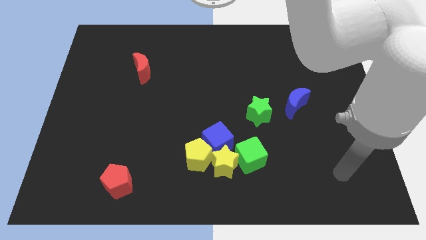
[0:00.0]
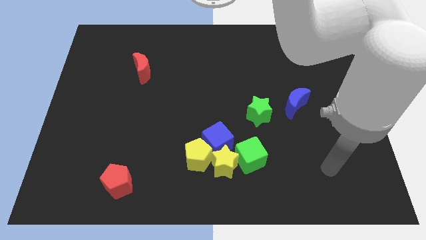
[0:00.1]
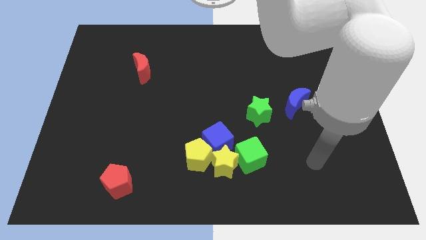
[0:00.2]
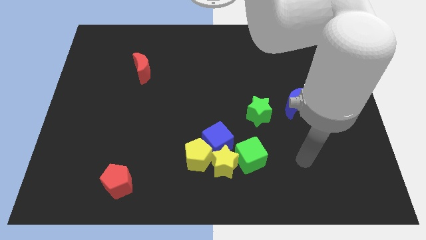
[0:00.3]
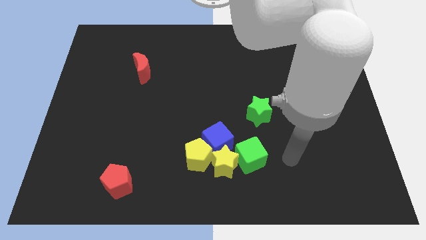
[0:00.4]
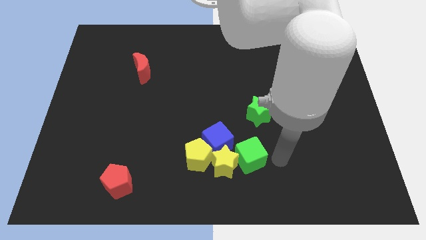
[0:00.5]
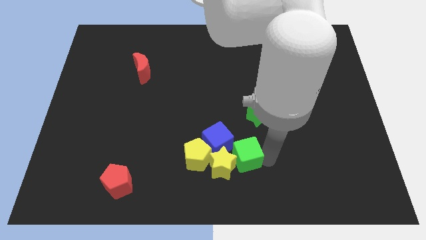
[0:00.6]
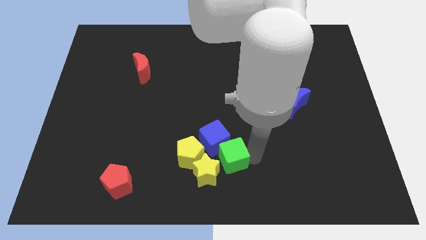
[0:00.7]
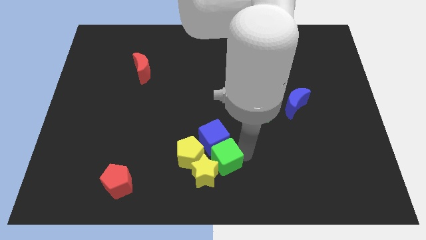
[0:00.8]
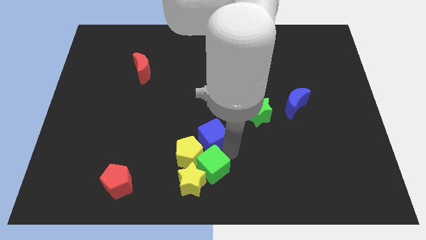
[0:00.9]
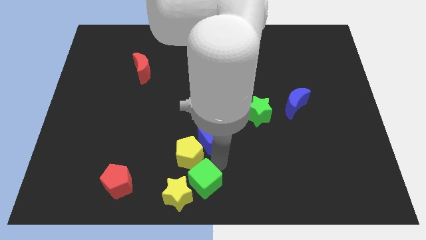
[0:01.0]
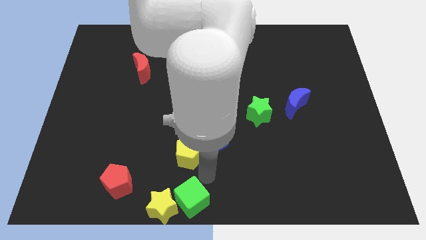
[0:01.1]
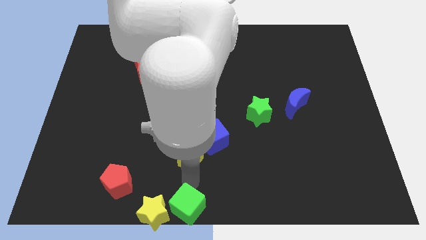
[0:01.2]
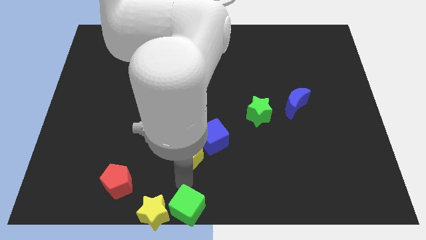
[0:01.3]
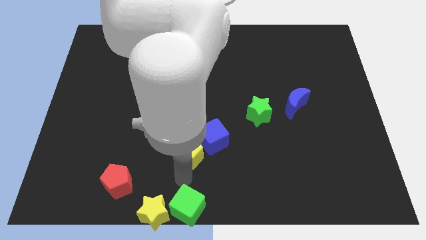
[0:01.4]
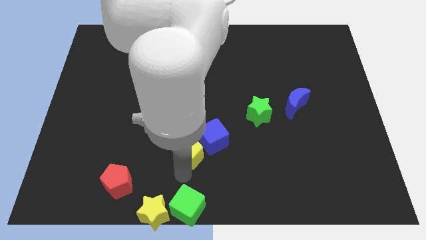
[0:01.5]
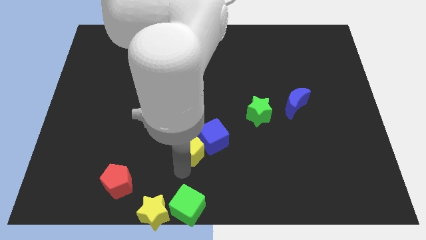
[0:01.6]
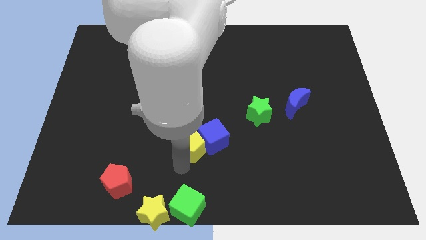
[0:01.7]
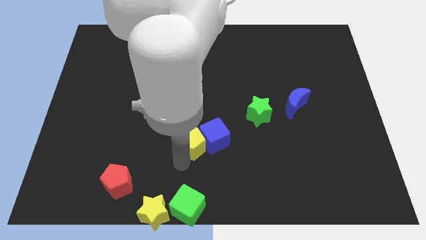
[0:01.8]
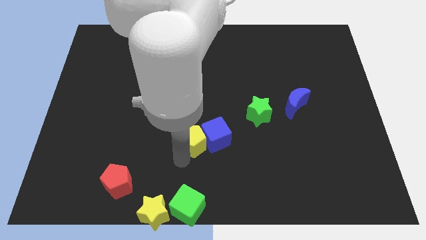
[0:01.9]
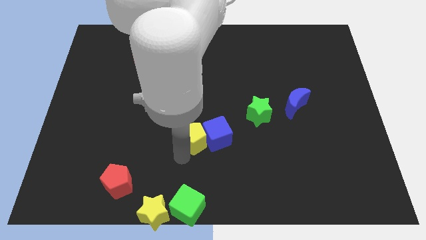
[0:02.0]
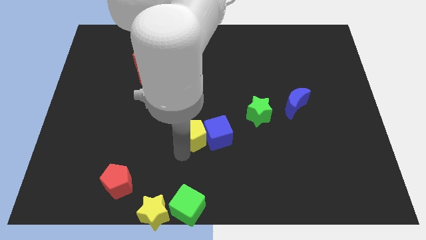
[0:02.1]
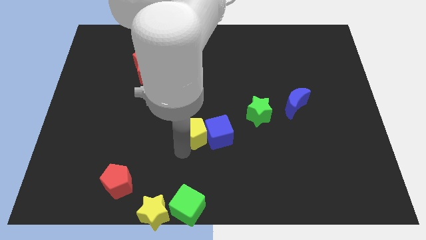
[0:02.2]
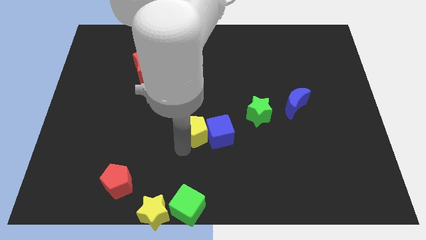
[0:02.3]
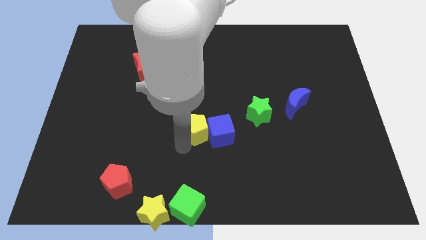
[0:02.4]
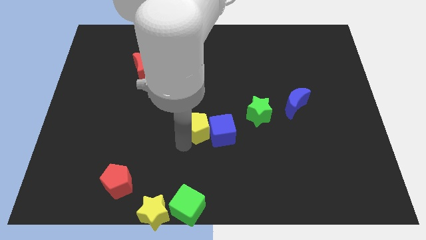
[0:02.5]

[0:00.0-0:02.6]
separate the yellow pentagon from the blue cube and yellow star

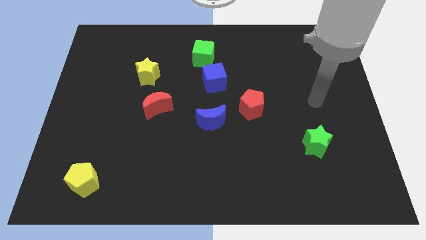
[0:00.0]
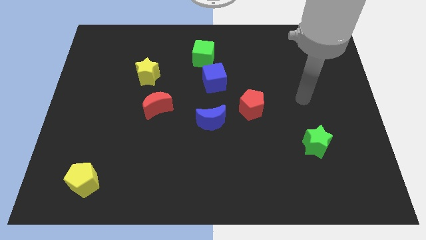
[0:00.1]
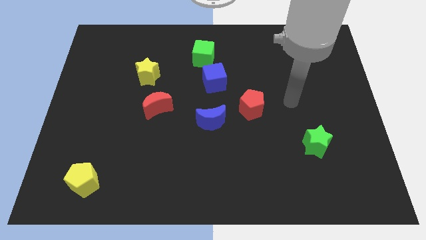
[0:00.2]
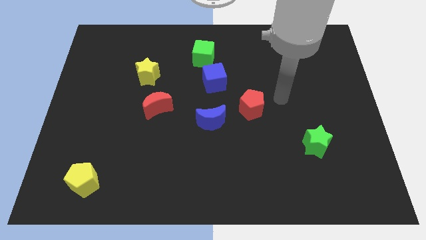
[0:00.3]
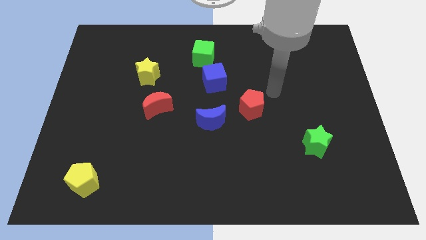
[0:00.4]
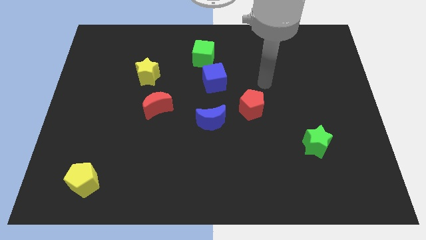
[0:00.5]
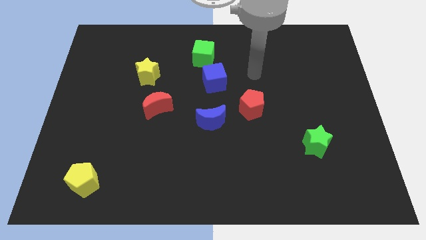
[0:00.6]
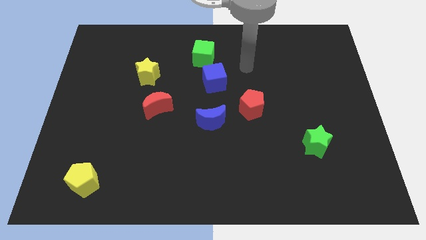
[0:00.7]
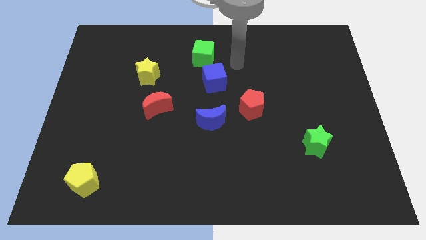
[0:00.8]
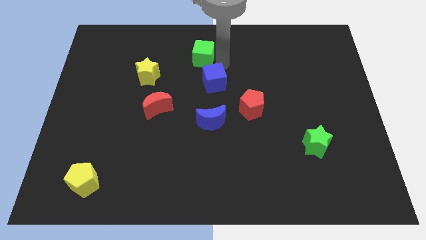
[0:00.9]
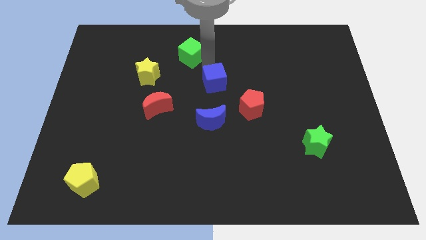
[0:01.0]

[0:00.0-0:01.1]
pull the blue cube apart from the green cube

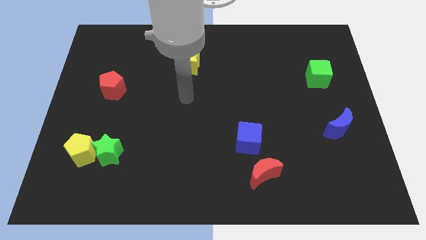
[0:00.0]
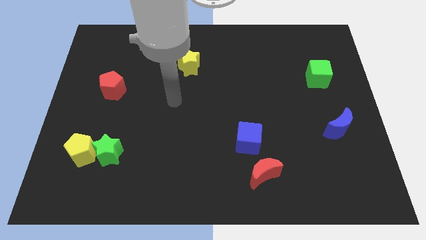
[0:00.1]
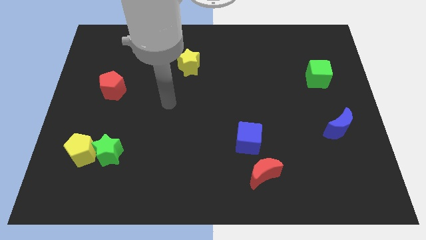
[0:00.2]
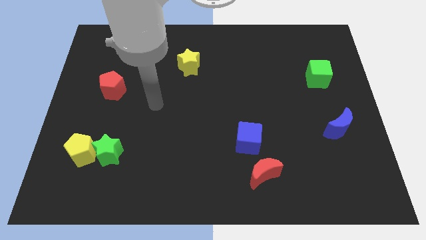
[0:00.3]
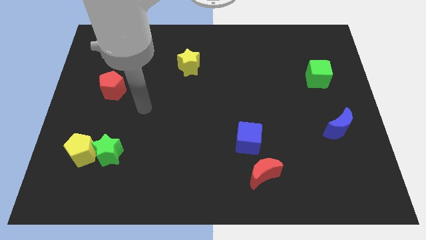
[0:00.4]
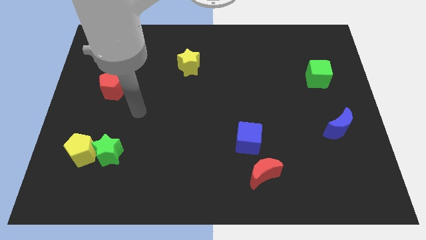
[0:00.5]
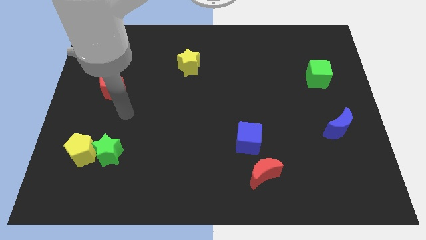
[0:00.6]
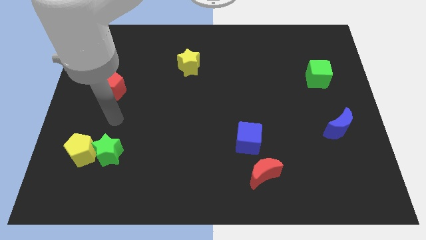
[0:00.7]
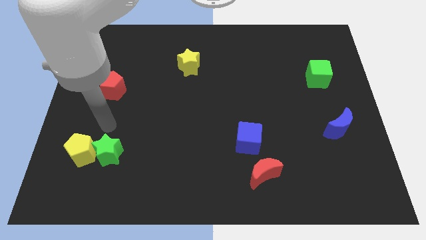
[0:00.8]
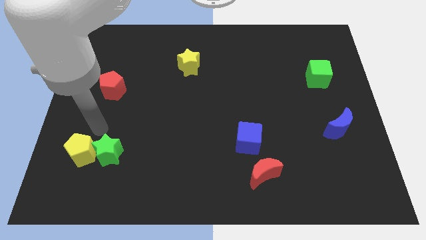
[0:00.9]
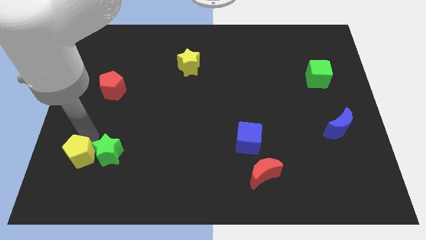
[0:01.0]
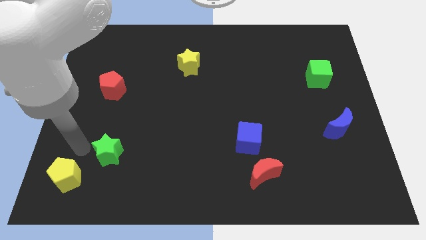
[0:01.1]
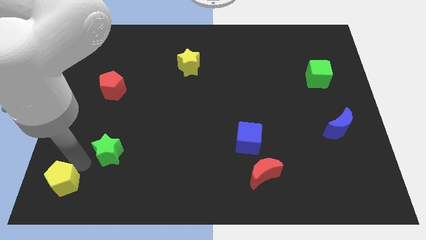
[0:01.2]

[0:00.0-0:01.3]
separate the green star from the yellow pentagon

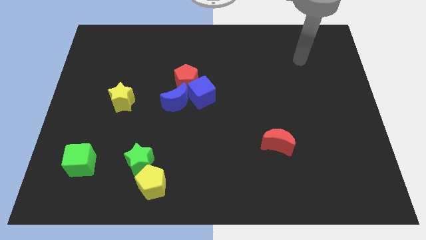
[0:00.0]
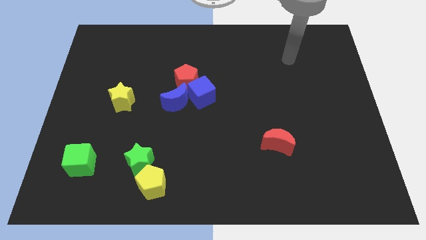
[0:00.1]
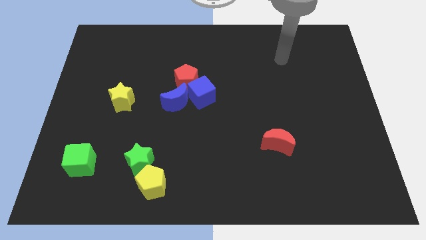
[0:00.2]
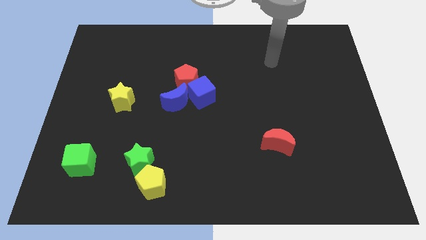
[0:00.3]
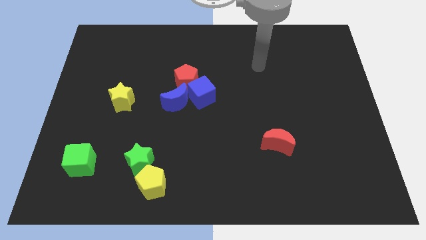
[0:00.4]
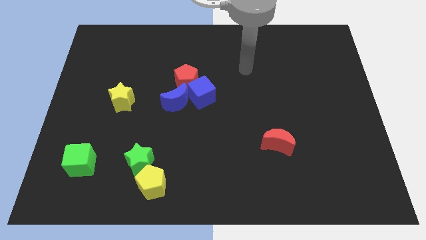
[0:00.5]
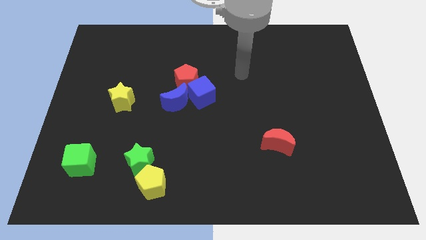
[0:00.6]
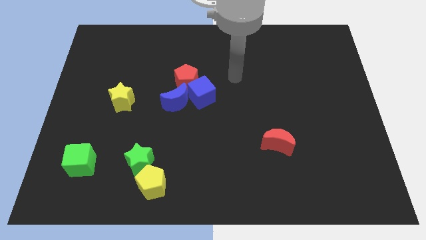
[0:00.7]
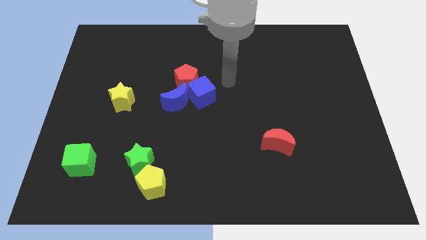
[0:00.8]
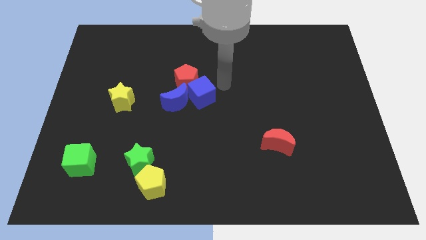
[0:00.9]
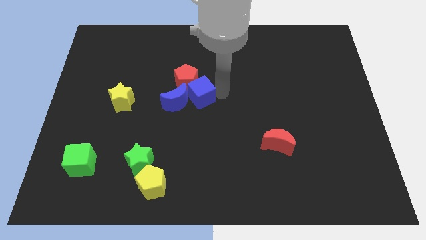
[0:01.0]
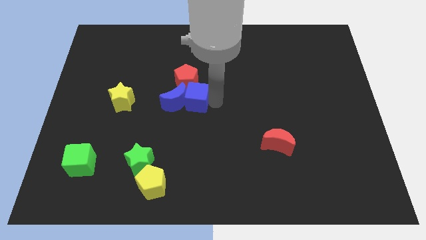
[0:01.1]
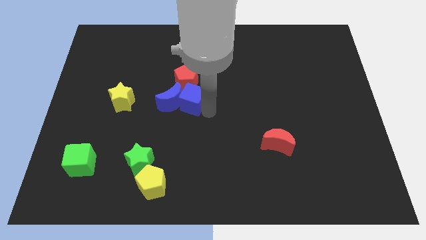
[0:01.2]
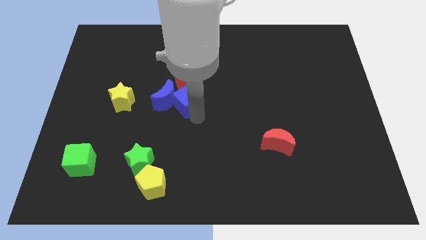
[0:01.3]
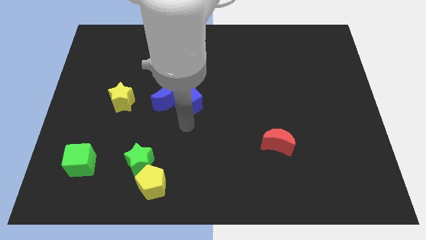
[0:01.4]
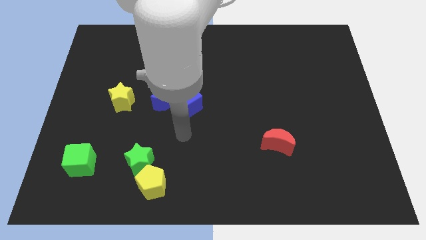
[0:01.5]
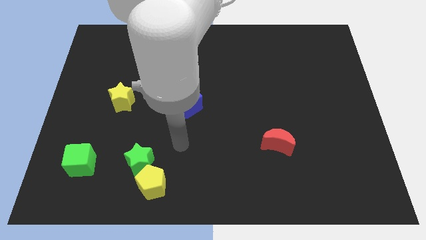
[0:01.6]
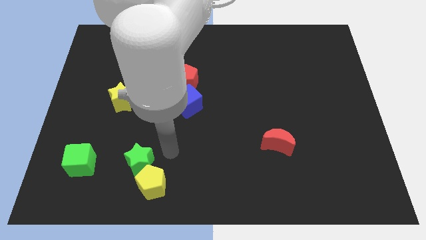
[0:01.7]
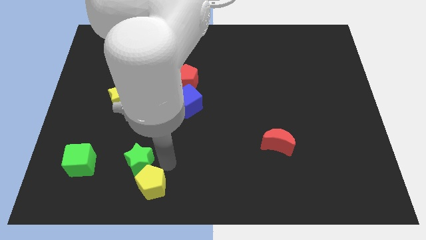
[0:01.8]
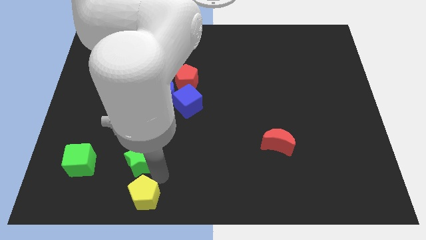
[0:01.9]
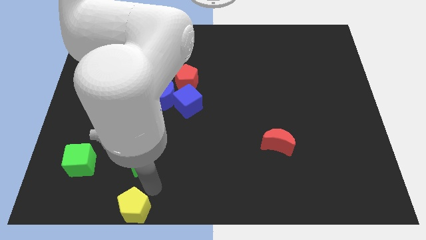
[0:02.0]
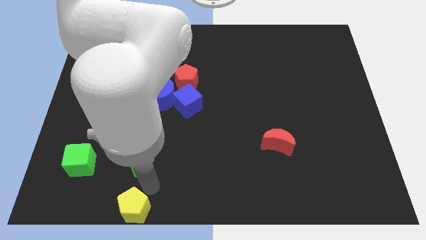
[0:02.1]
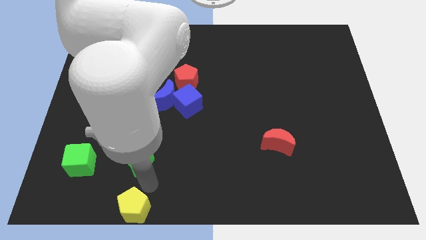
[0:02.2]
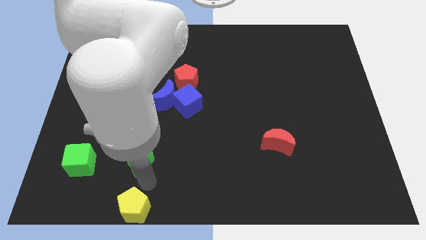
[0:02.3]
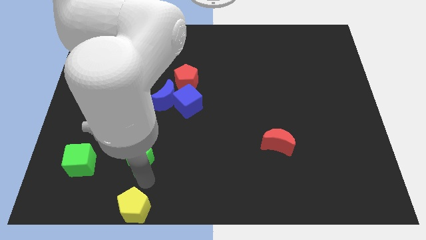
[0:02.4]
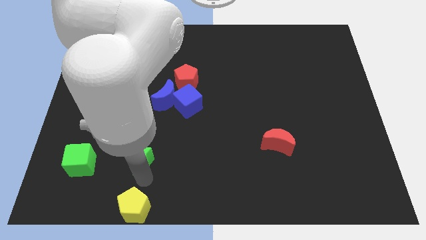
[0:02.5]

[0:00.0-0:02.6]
pull the green star apart from the yellow pentagon

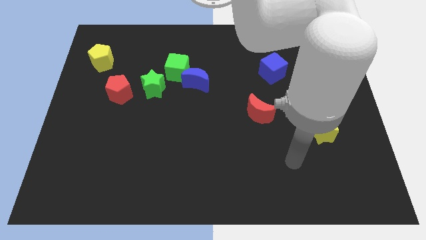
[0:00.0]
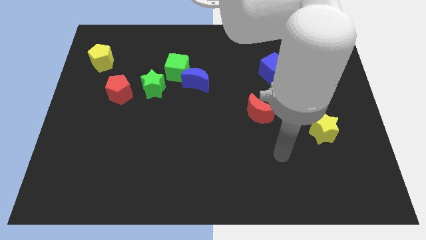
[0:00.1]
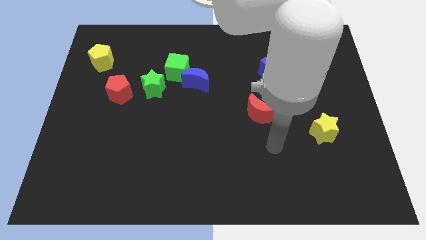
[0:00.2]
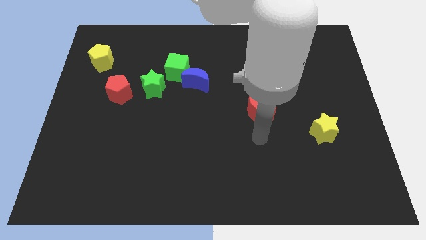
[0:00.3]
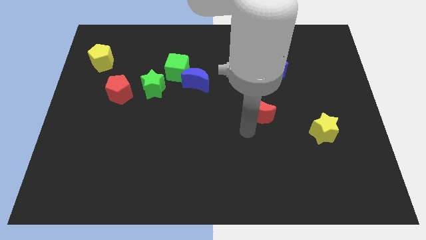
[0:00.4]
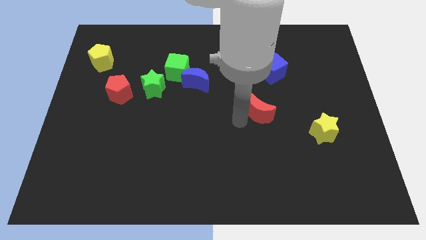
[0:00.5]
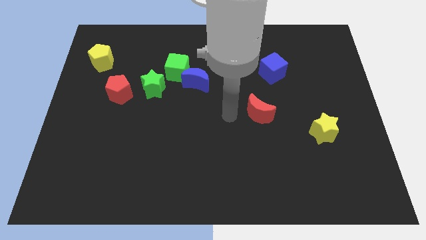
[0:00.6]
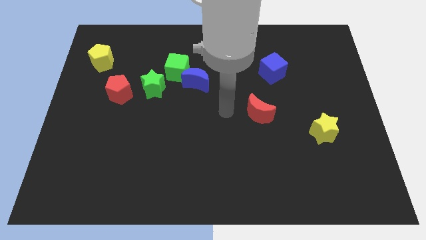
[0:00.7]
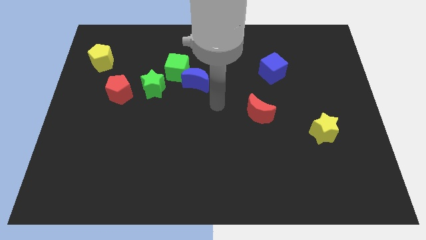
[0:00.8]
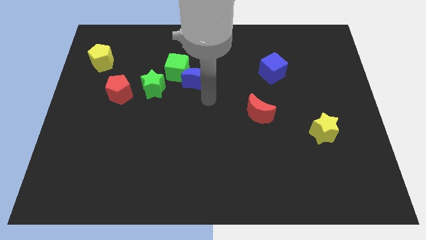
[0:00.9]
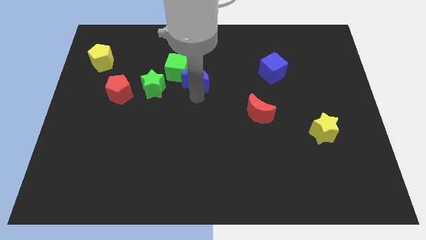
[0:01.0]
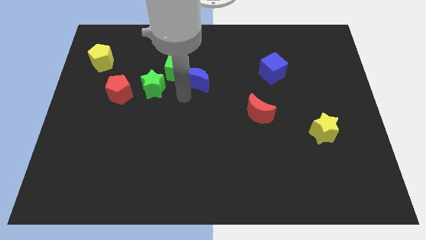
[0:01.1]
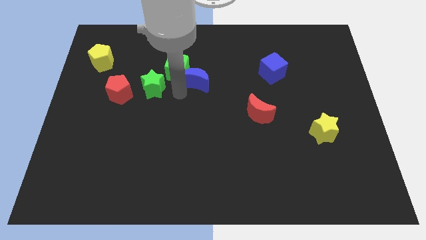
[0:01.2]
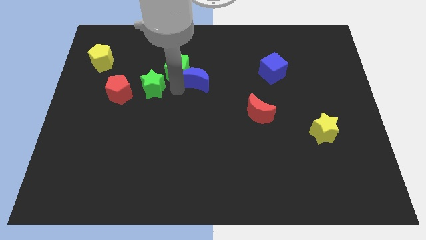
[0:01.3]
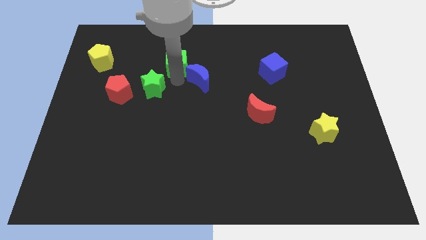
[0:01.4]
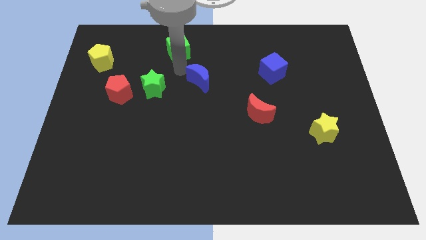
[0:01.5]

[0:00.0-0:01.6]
pull the blue moon apart from the green cube

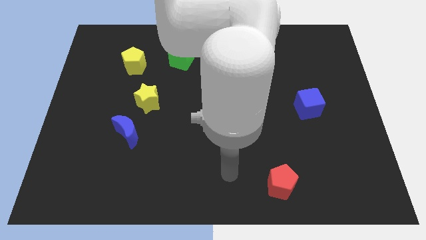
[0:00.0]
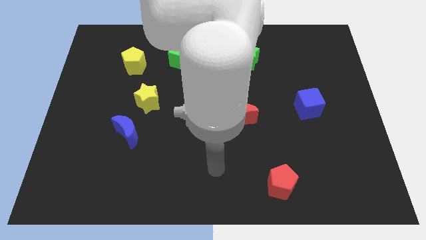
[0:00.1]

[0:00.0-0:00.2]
pull the blue moon apart from the yellow star
